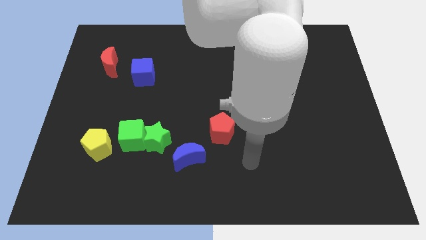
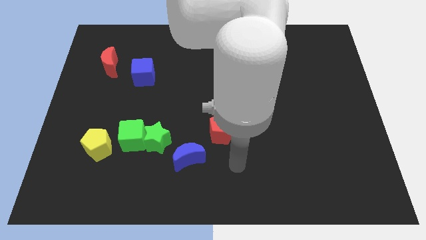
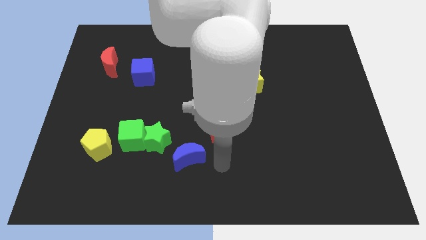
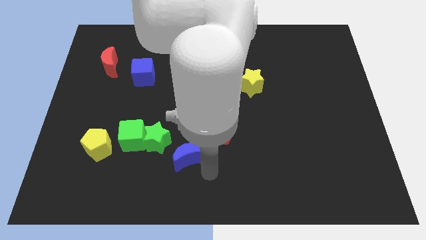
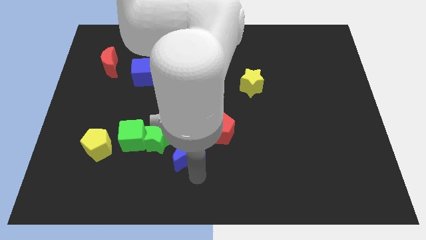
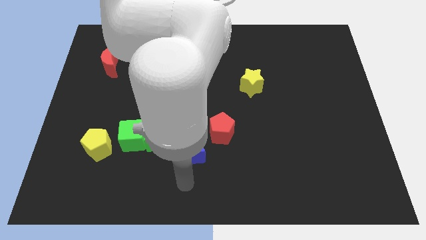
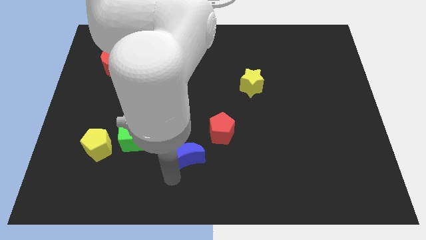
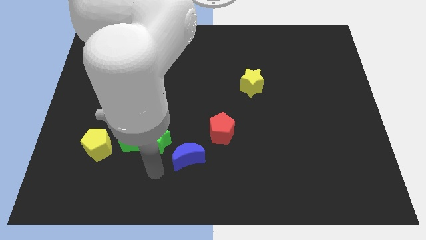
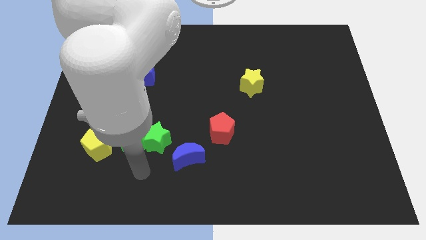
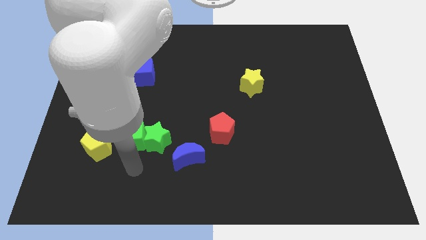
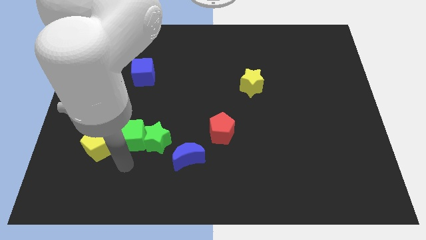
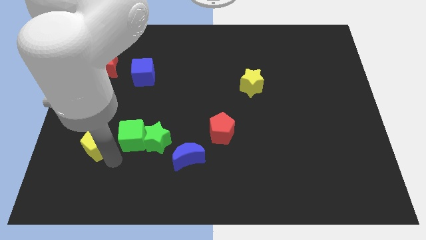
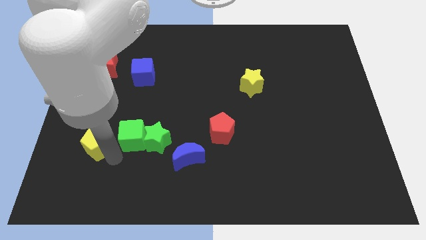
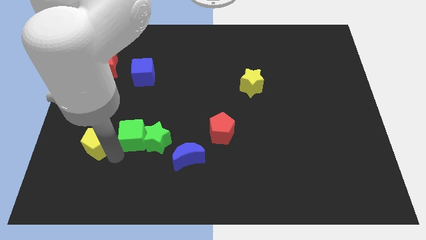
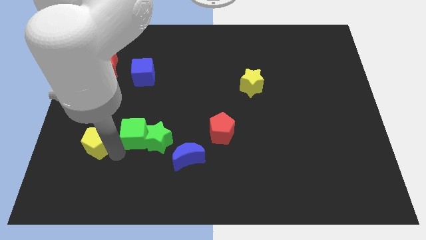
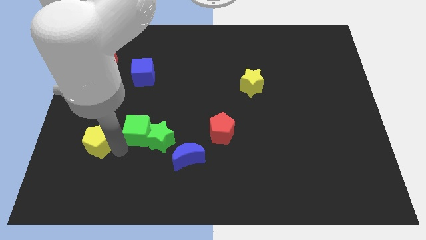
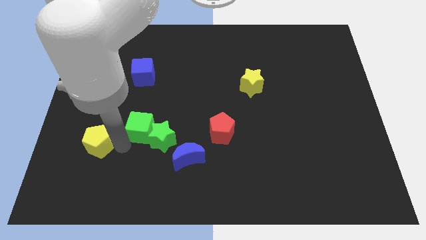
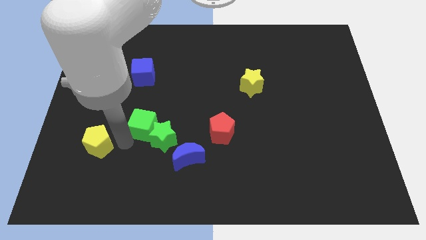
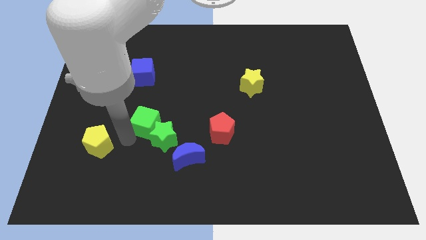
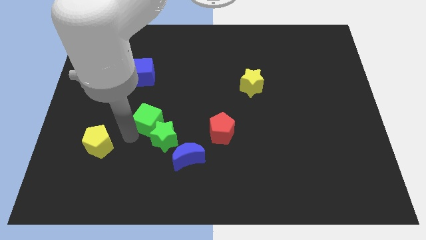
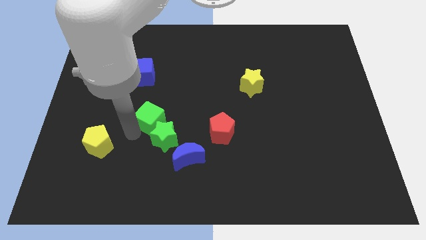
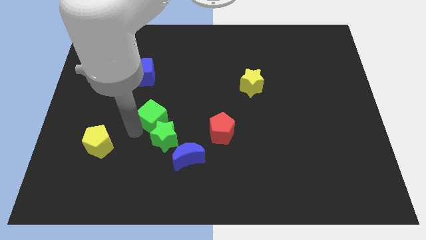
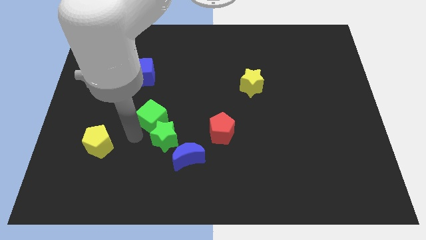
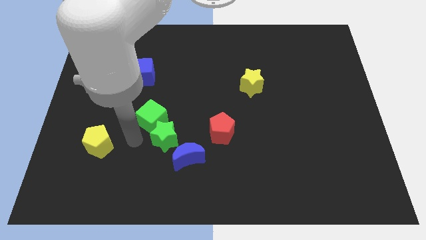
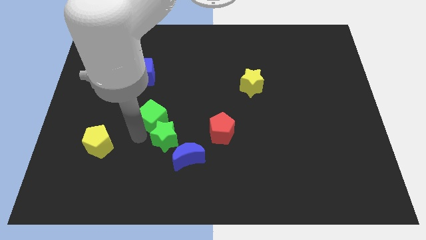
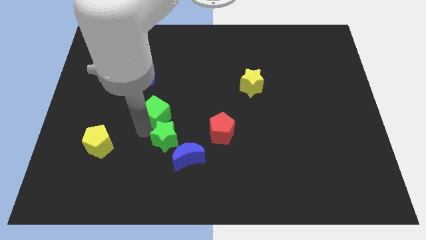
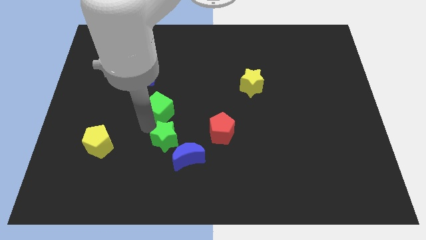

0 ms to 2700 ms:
separate the green cube from the green star and yellow pentagon

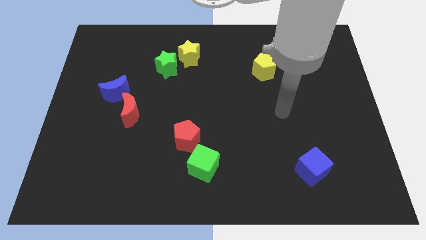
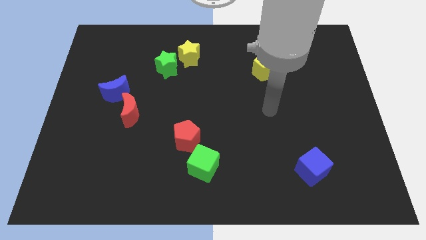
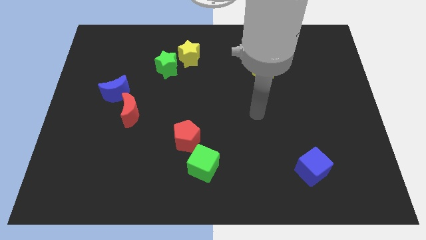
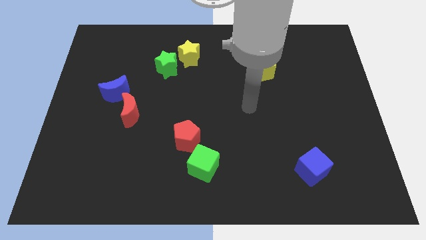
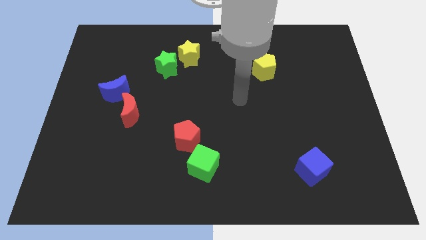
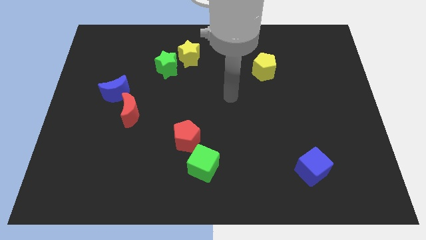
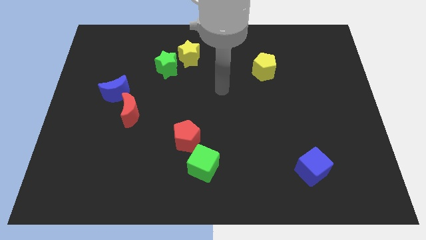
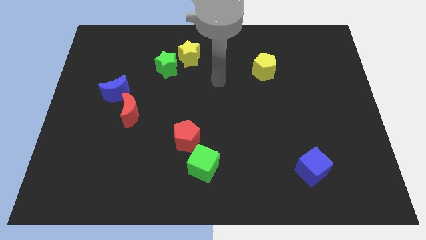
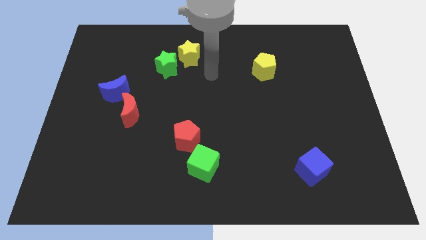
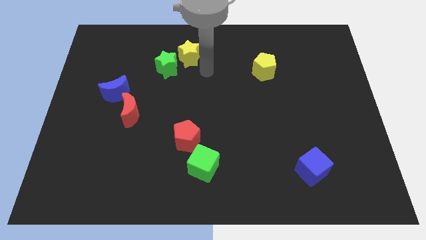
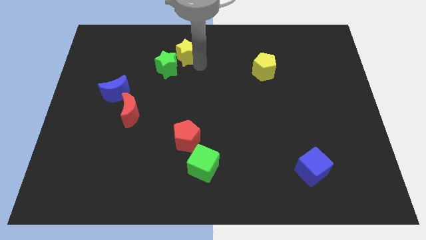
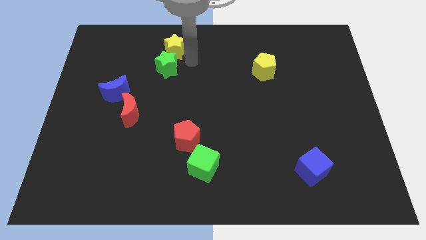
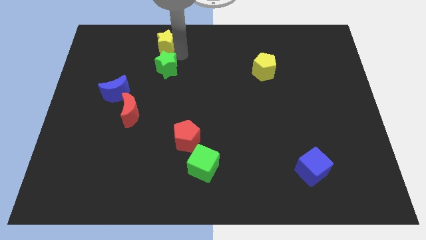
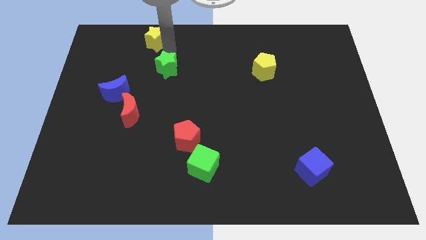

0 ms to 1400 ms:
pull the green star apart from the yellow star

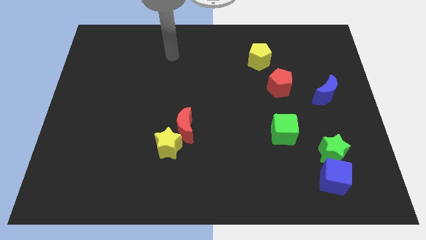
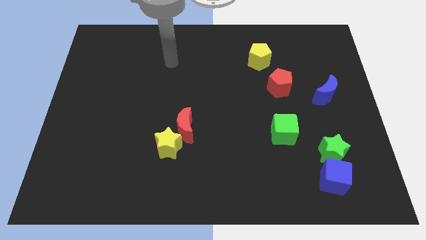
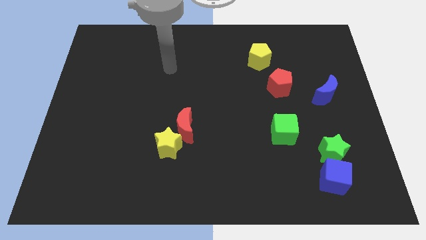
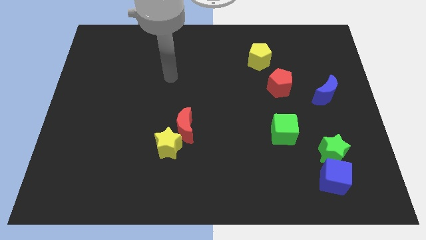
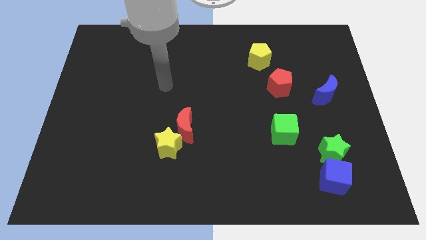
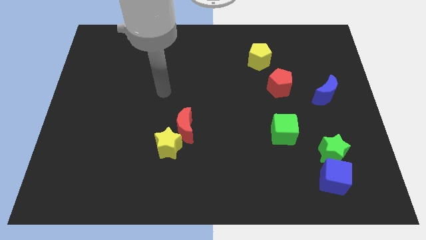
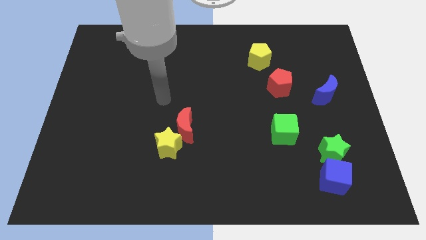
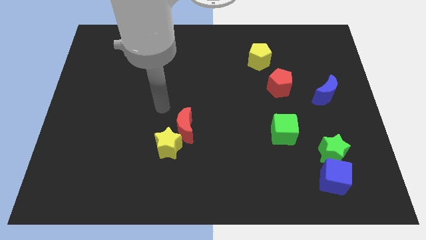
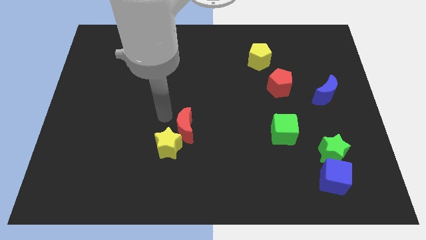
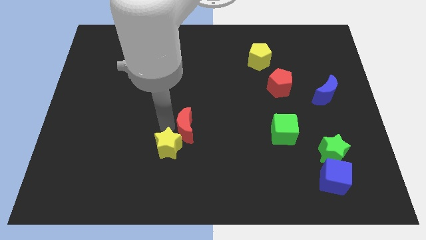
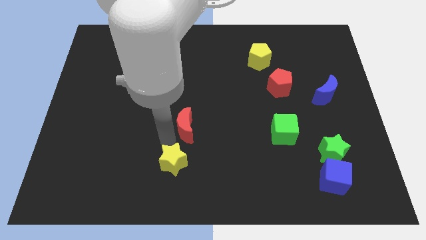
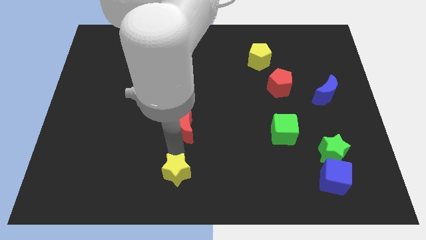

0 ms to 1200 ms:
separate the red moon from the yellow star

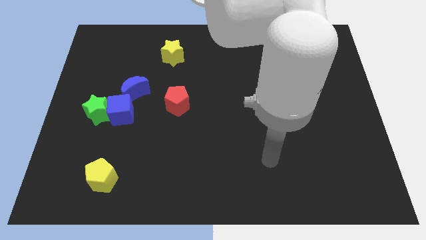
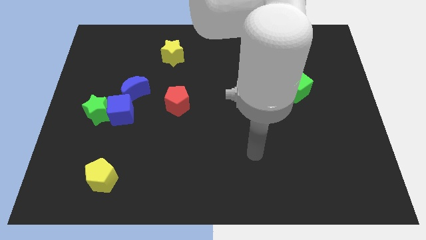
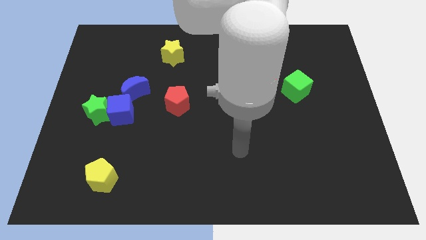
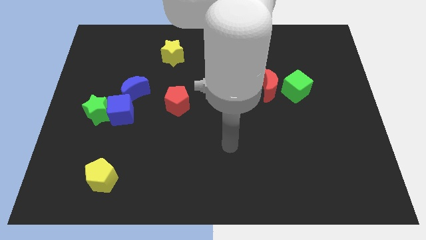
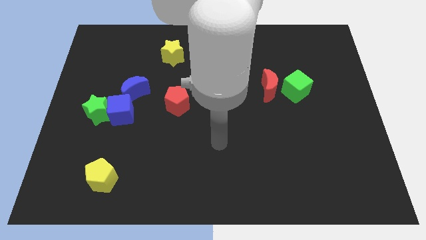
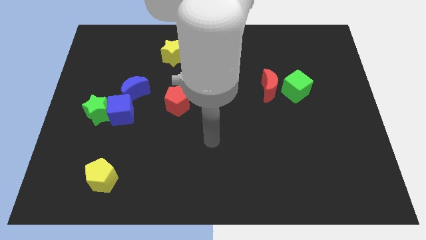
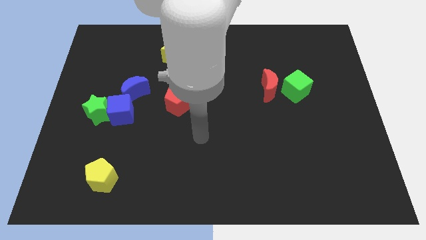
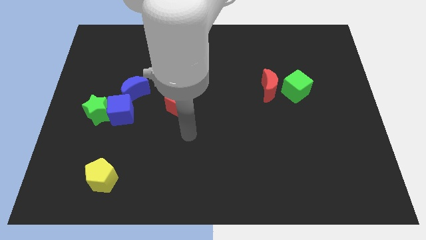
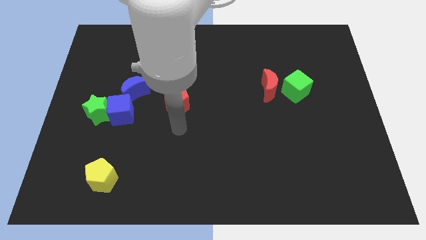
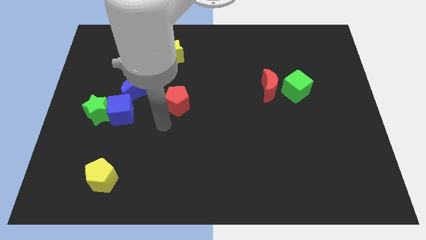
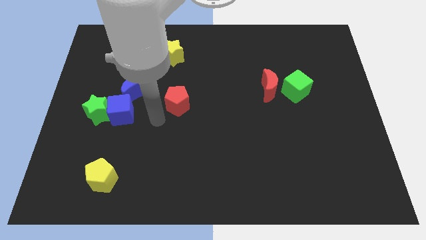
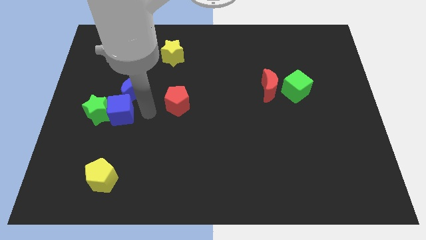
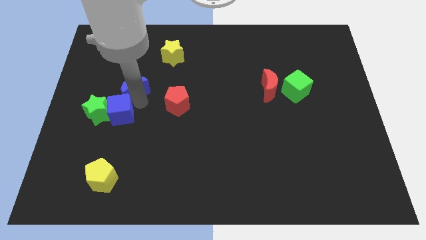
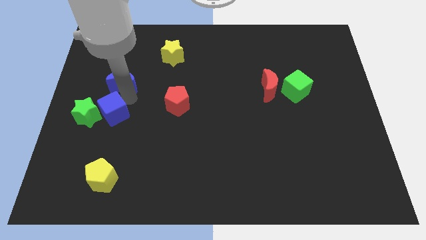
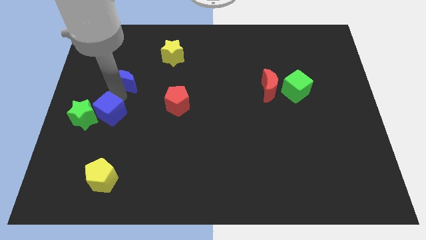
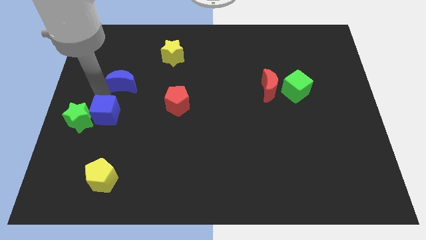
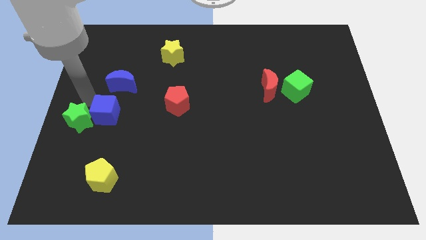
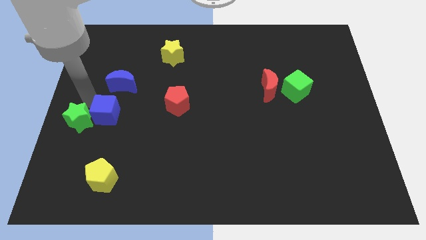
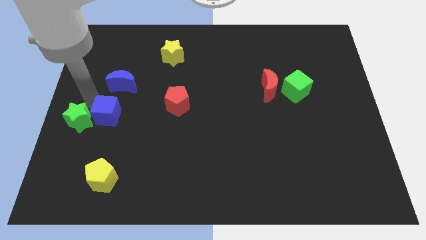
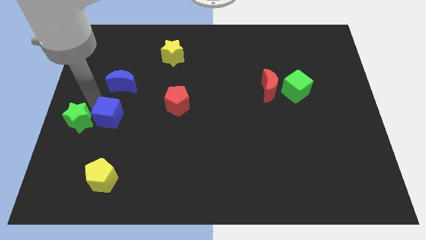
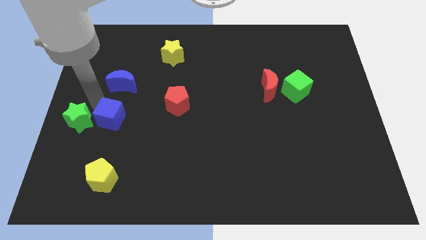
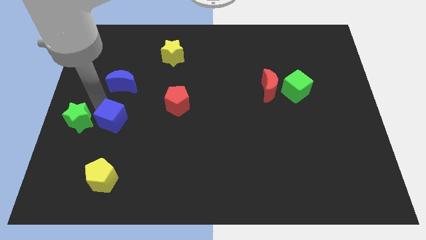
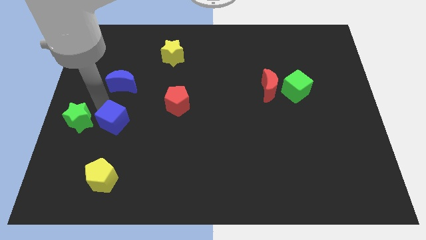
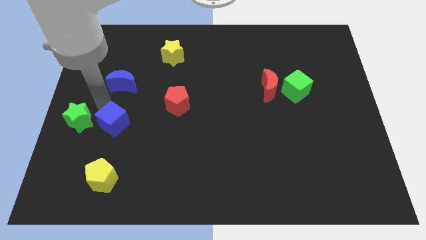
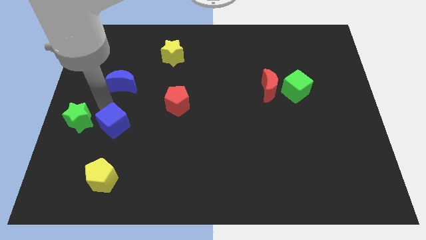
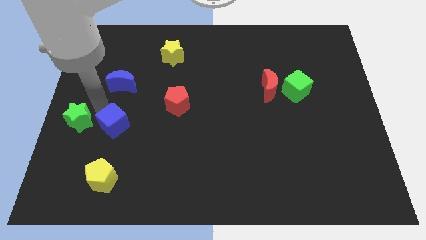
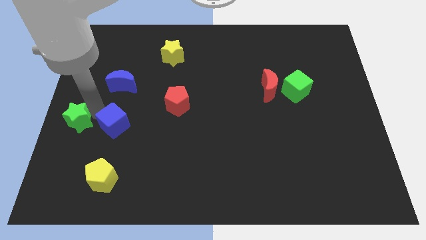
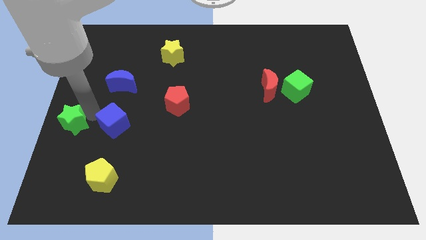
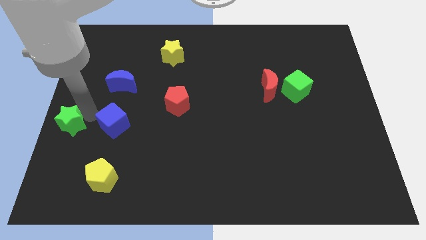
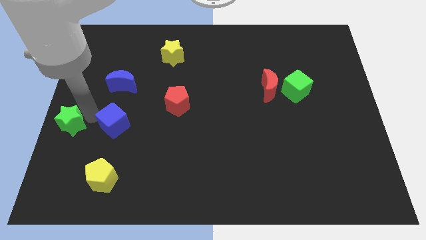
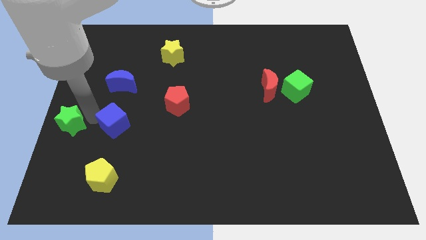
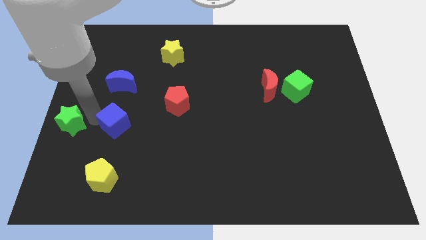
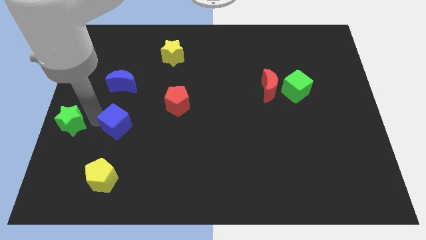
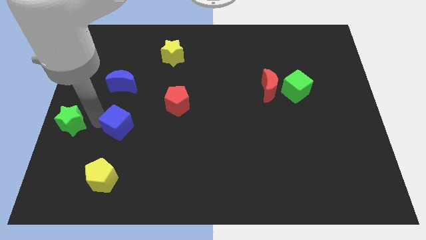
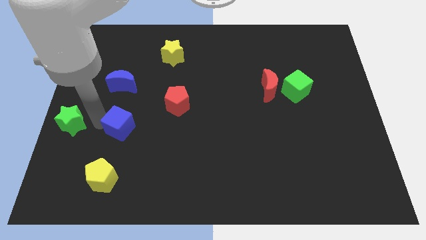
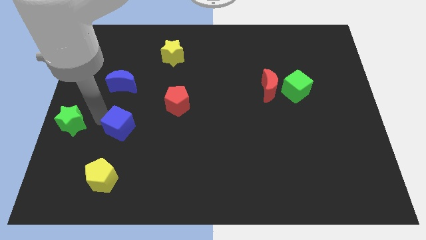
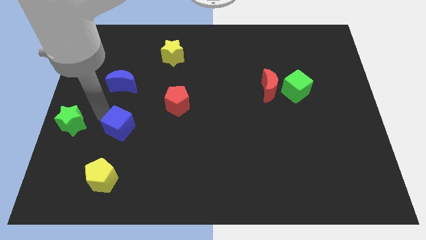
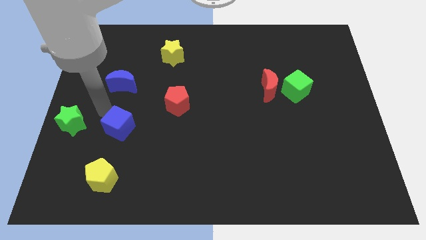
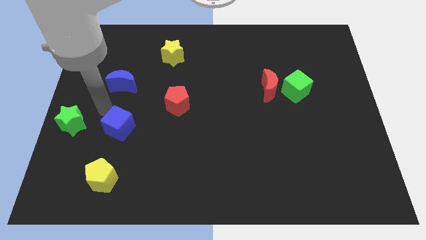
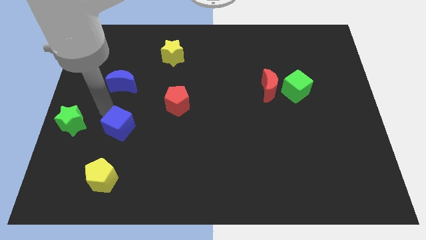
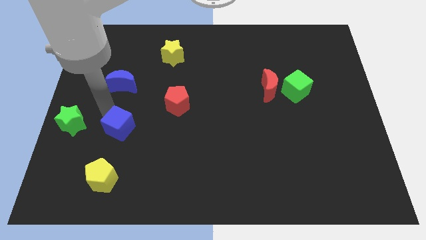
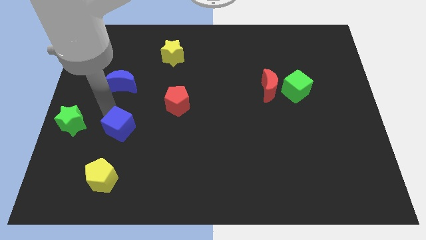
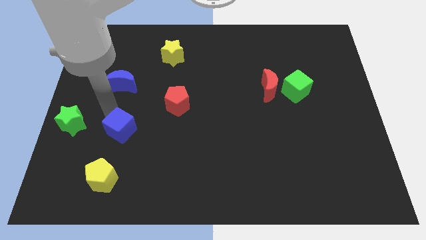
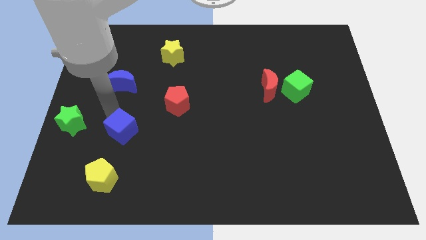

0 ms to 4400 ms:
separate the blue cube from the green star and blue moon
